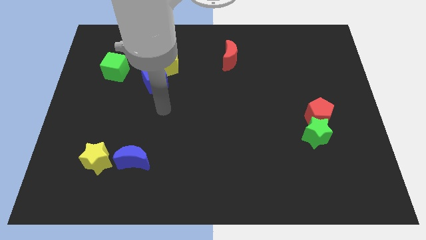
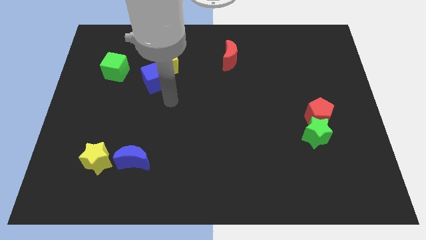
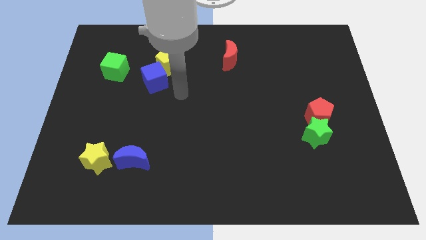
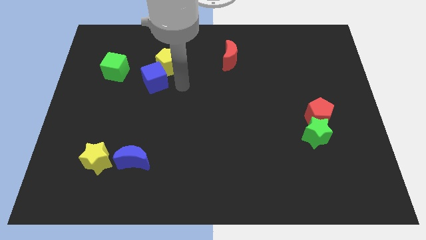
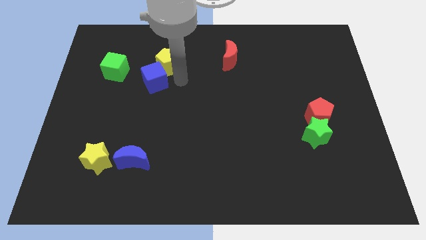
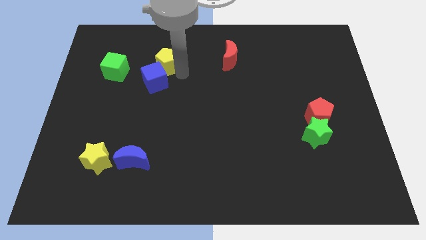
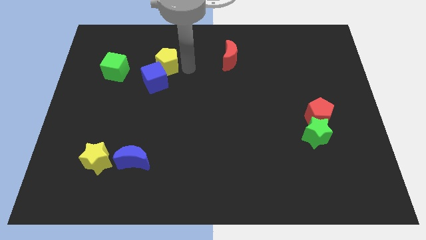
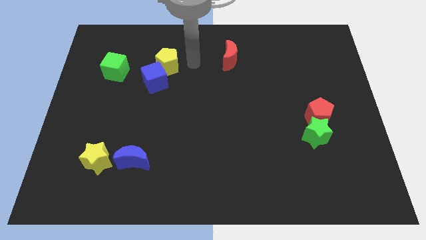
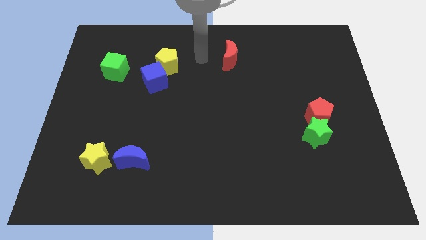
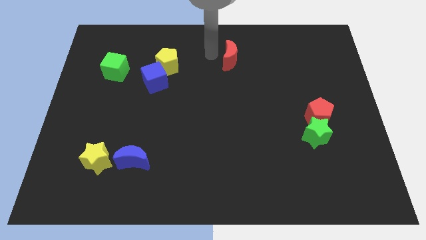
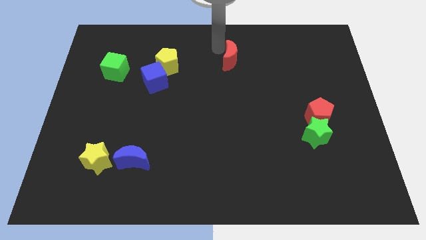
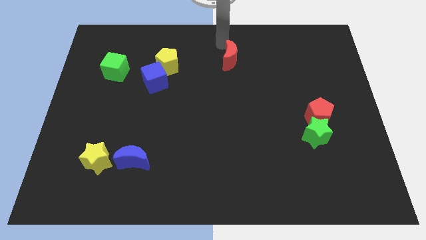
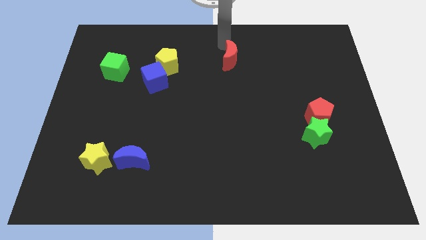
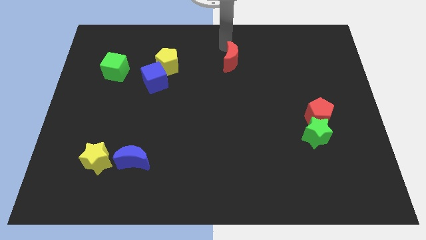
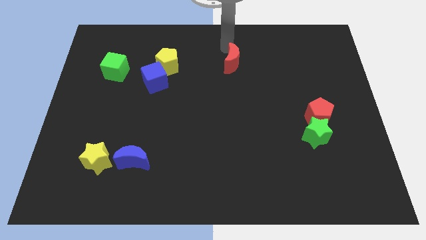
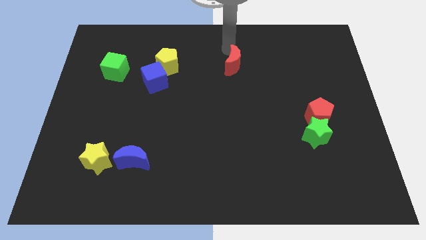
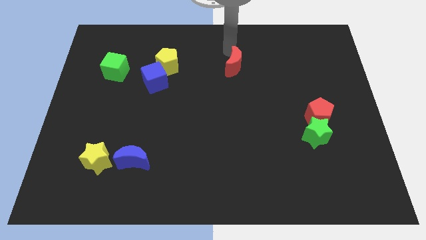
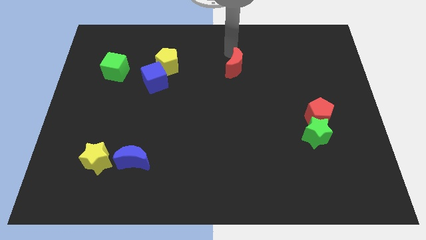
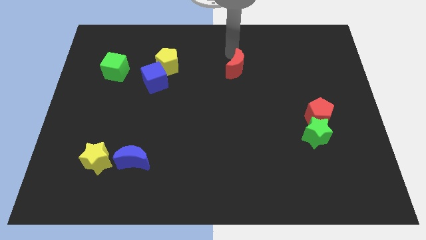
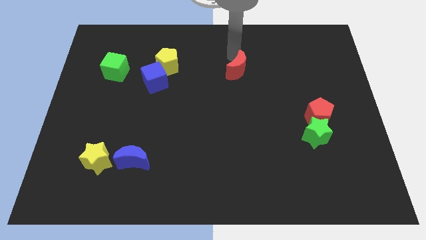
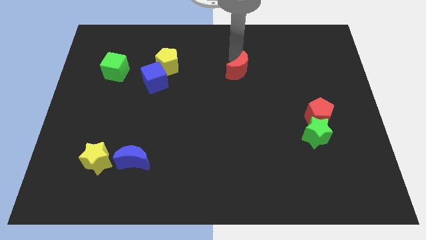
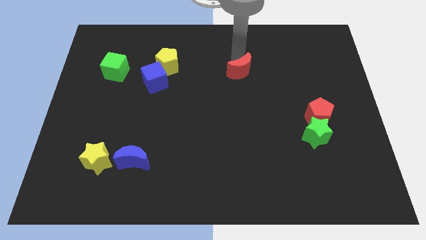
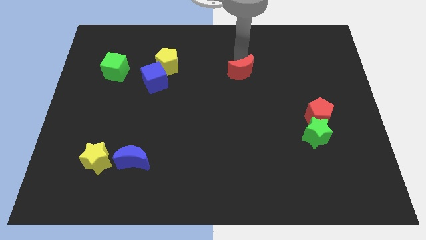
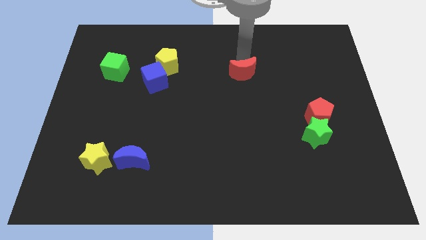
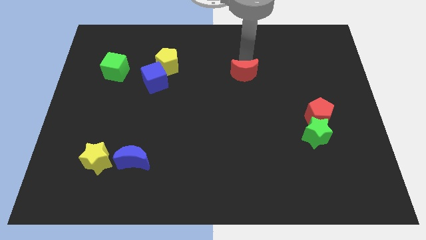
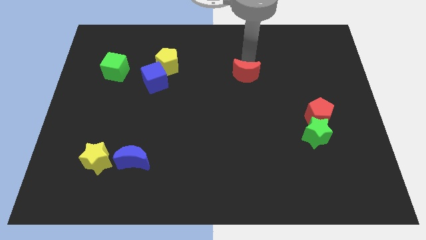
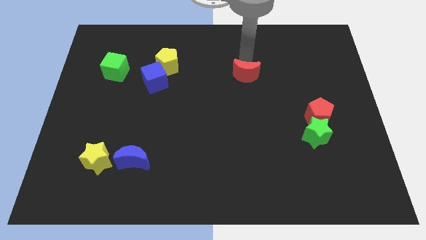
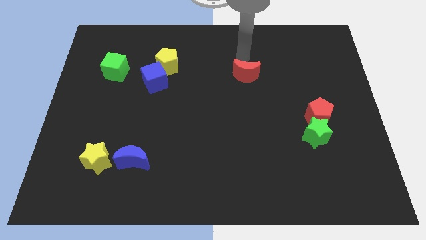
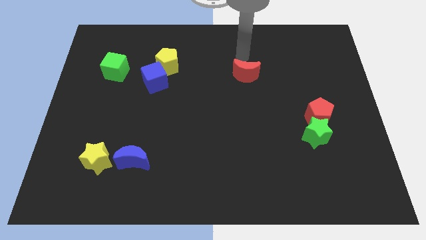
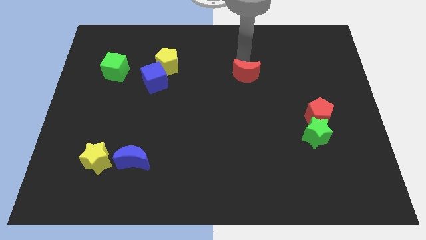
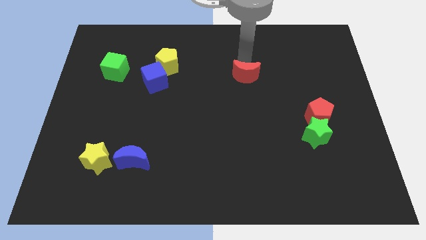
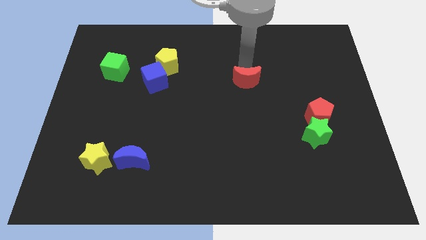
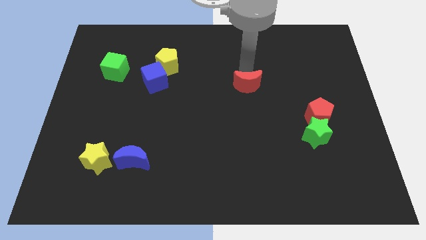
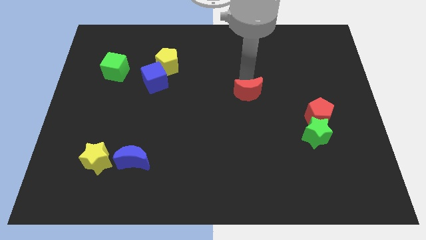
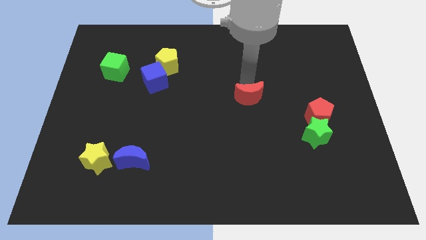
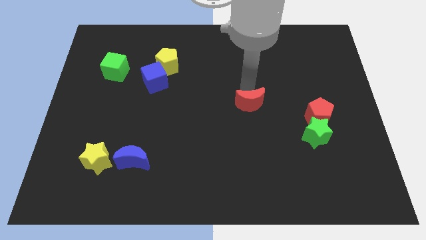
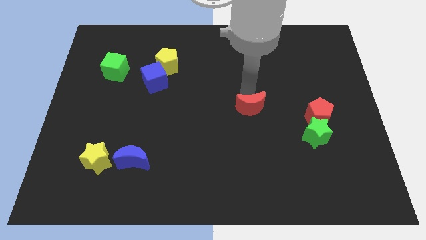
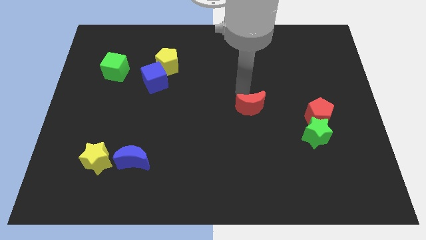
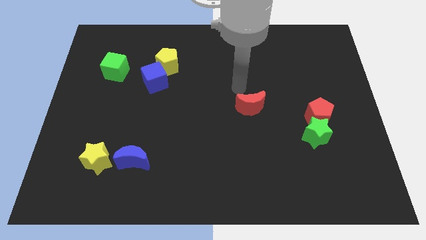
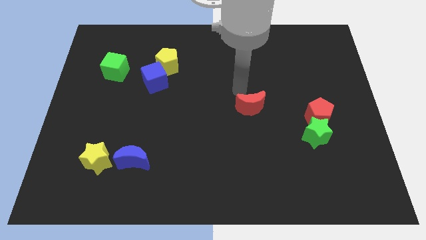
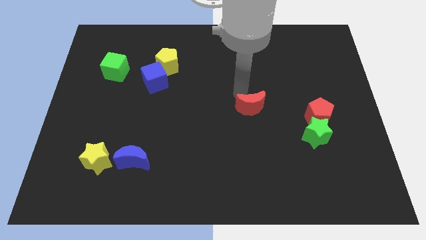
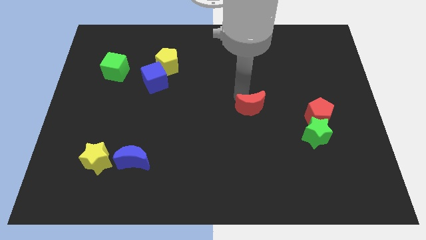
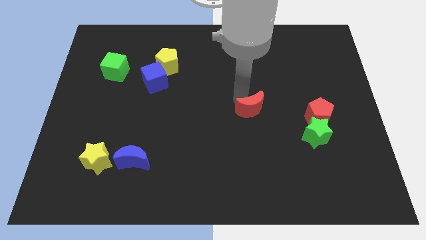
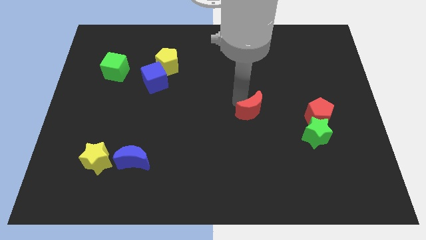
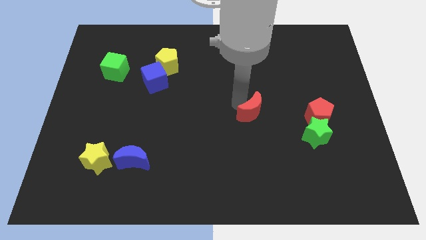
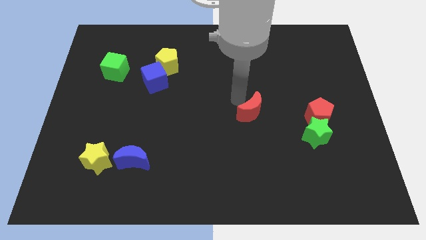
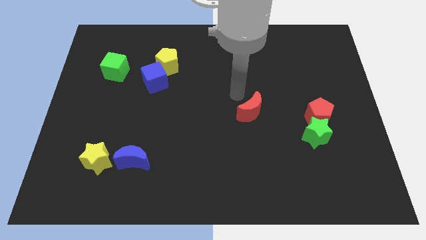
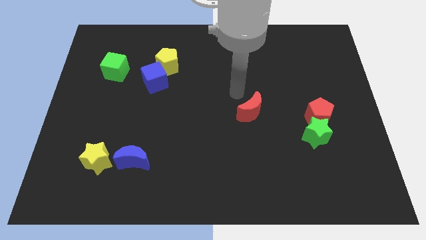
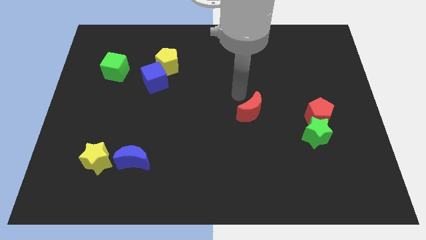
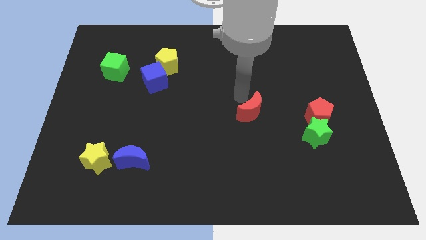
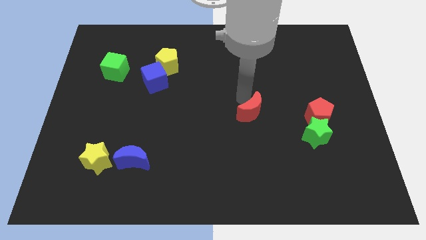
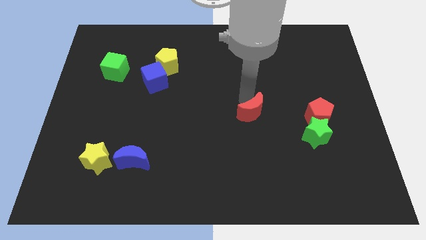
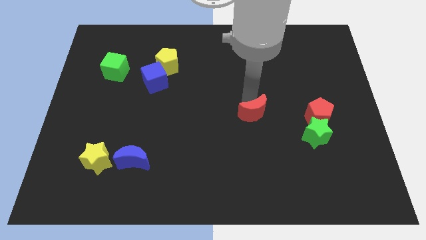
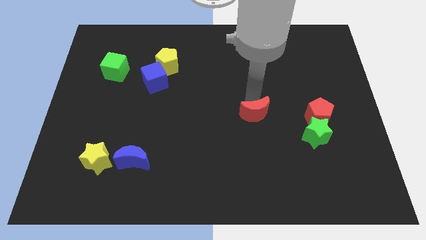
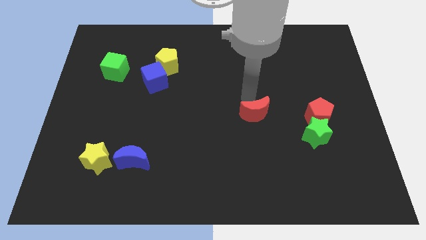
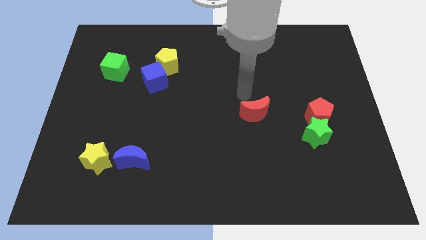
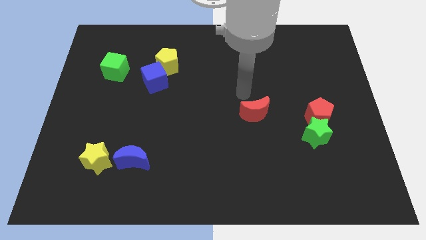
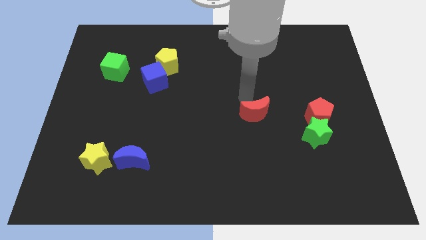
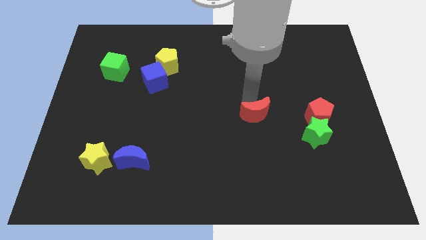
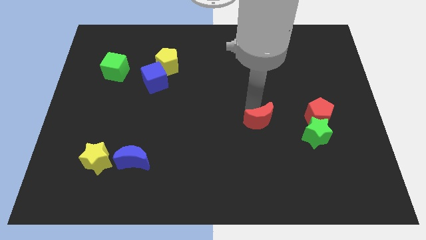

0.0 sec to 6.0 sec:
put the red moon to the left side of the green star
